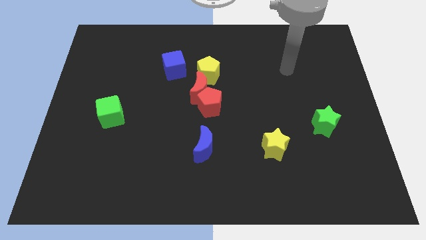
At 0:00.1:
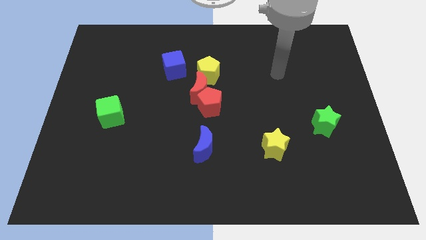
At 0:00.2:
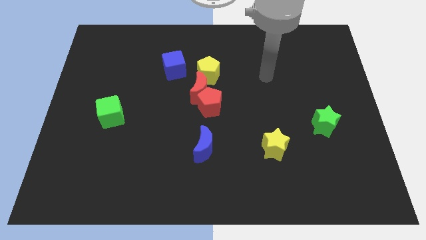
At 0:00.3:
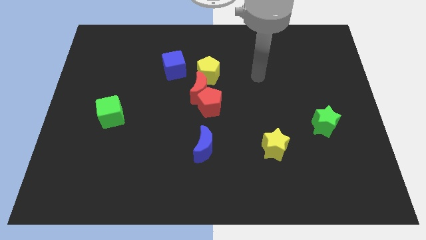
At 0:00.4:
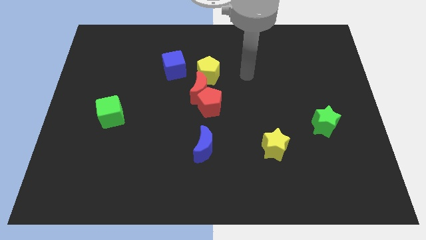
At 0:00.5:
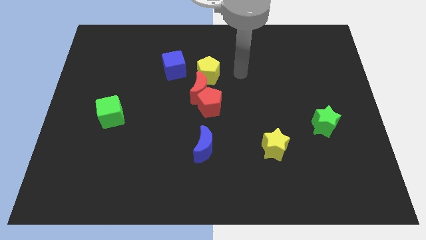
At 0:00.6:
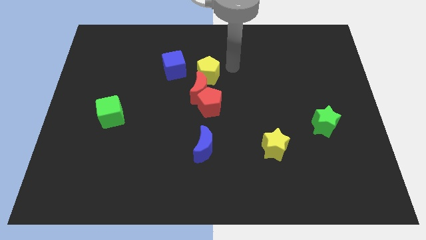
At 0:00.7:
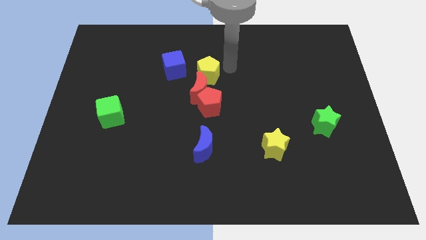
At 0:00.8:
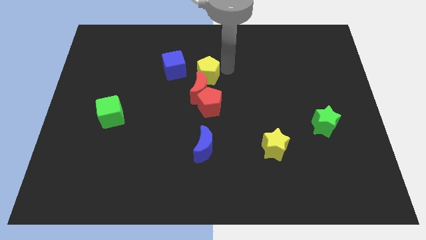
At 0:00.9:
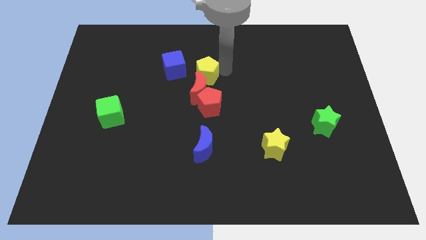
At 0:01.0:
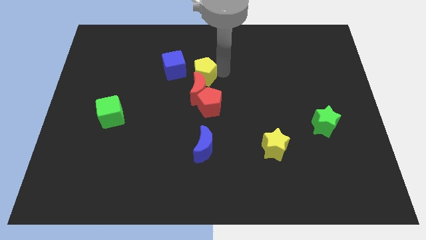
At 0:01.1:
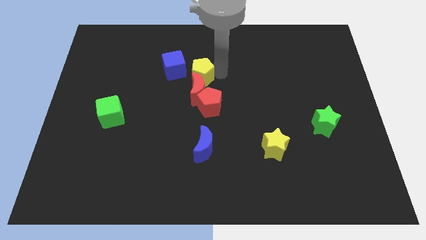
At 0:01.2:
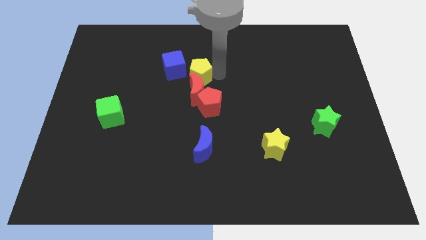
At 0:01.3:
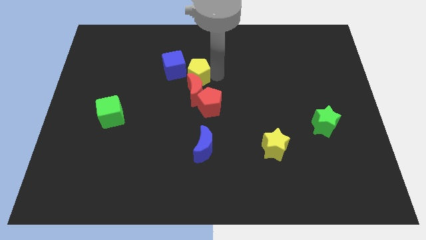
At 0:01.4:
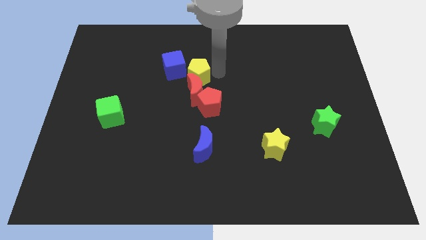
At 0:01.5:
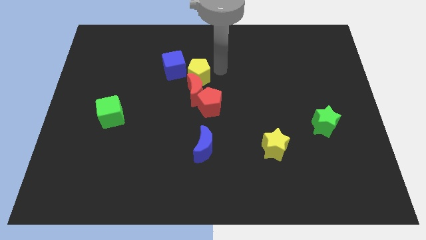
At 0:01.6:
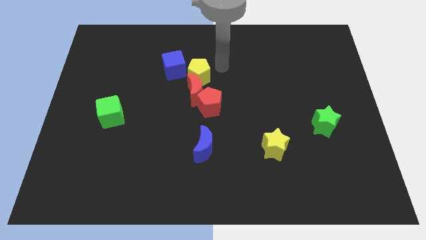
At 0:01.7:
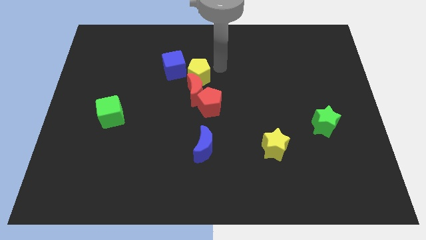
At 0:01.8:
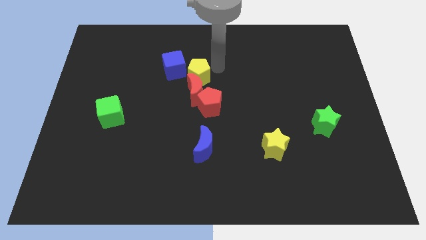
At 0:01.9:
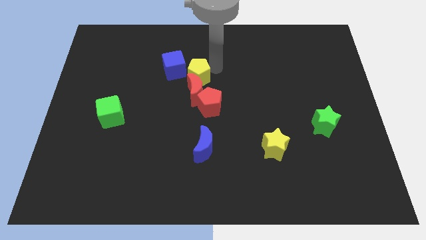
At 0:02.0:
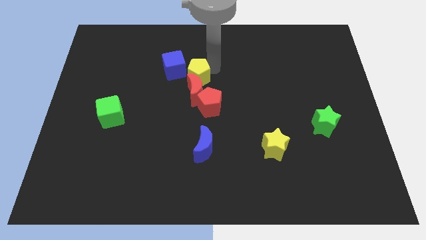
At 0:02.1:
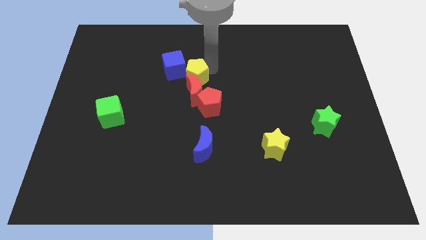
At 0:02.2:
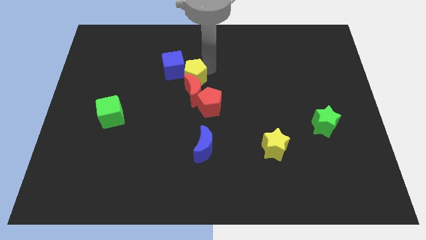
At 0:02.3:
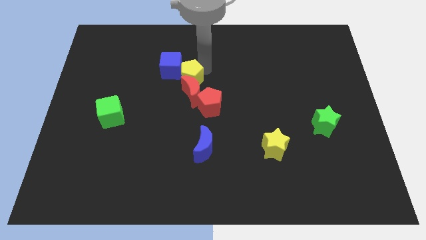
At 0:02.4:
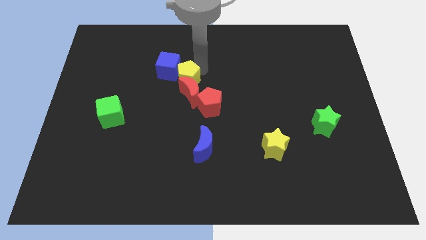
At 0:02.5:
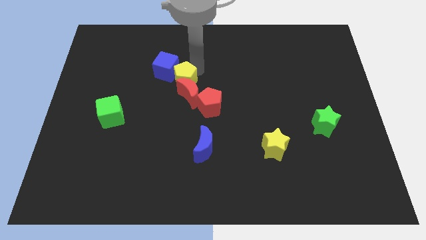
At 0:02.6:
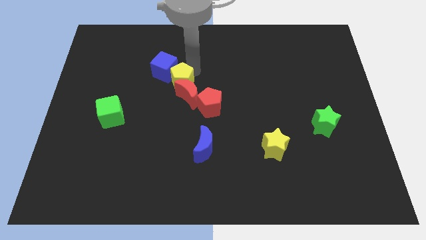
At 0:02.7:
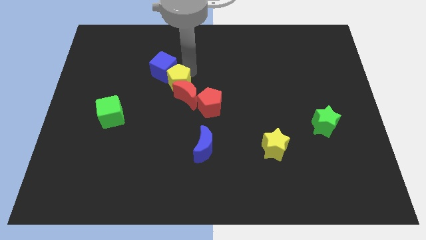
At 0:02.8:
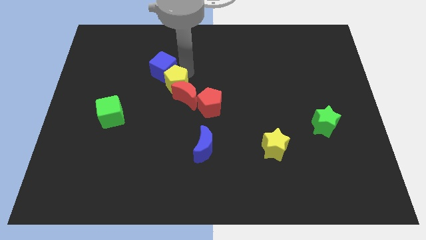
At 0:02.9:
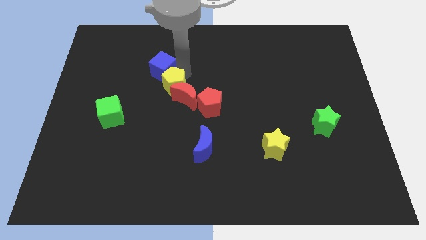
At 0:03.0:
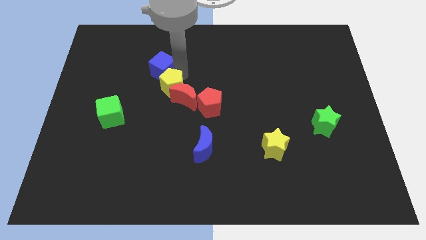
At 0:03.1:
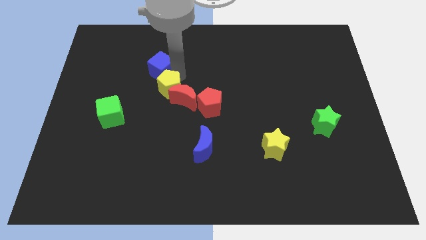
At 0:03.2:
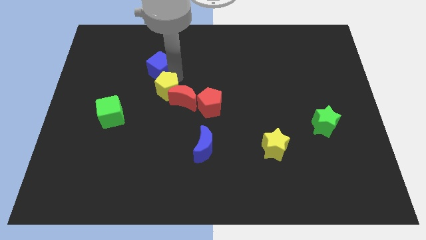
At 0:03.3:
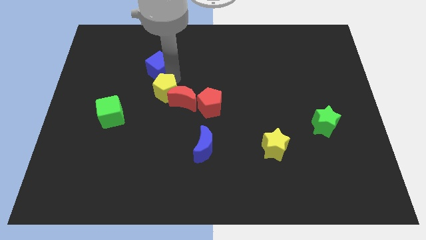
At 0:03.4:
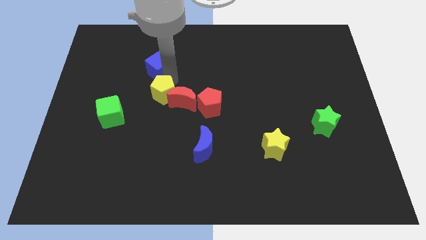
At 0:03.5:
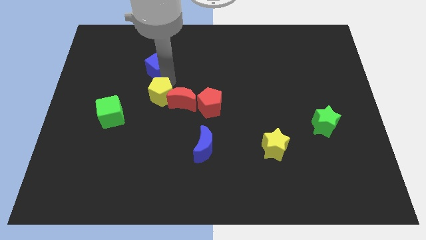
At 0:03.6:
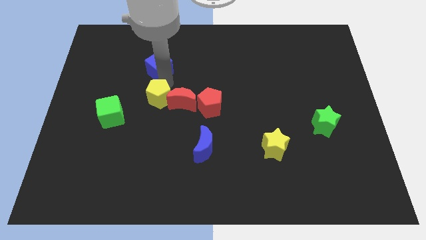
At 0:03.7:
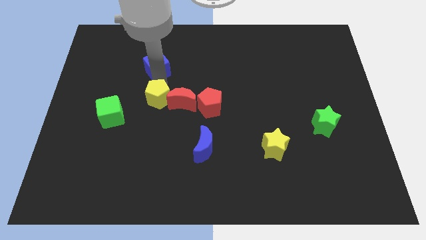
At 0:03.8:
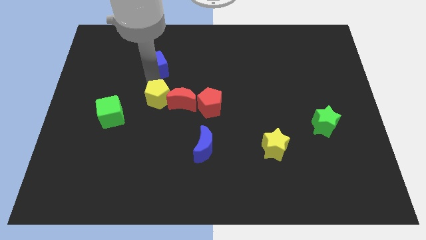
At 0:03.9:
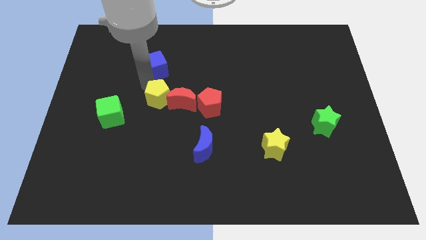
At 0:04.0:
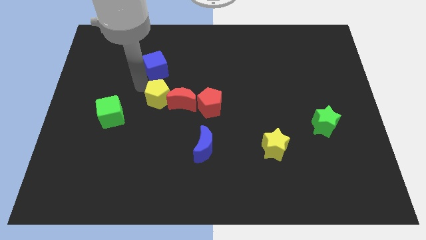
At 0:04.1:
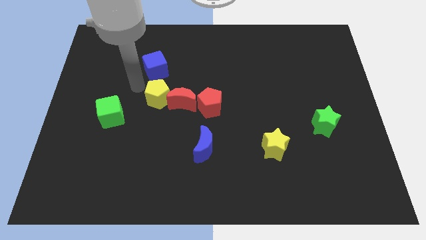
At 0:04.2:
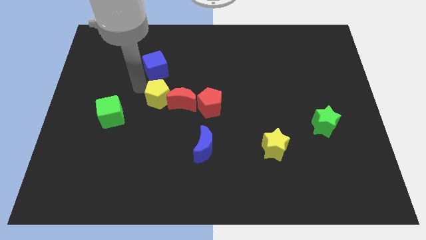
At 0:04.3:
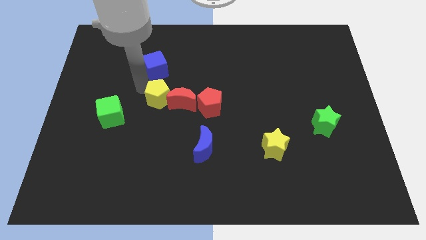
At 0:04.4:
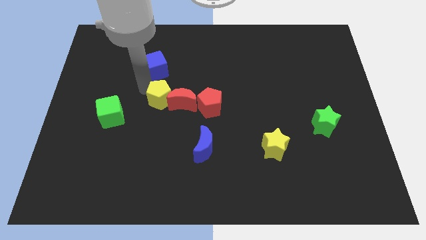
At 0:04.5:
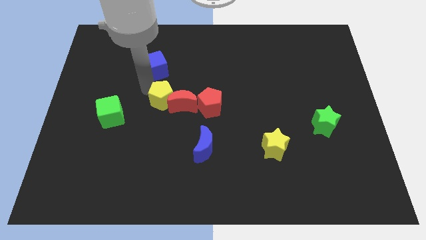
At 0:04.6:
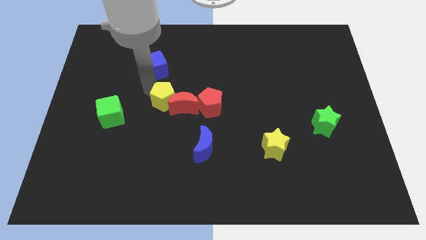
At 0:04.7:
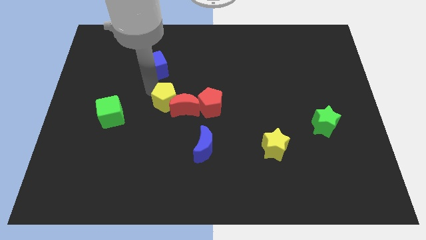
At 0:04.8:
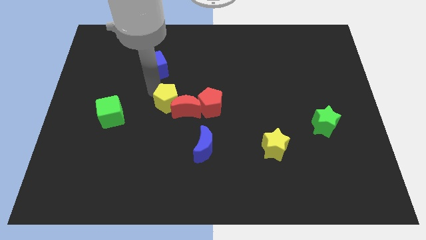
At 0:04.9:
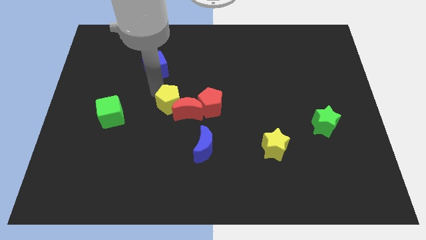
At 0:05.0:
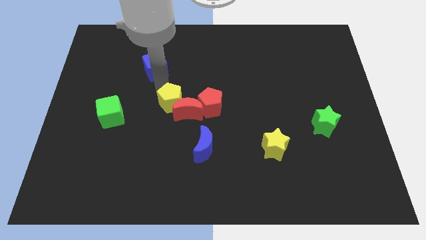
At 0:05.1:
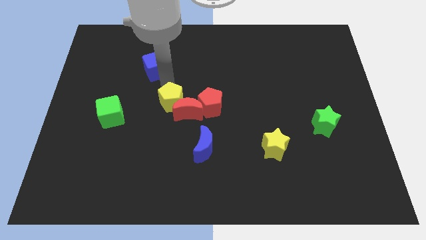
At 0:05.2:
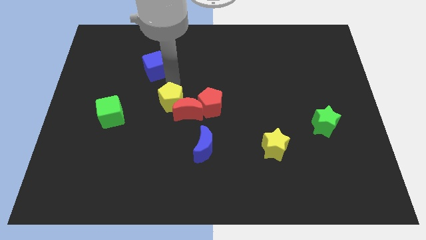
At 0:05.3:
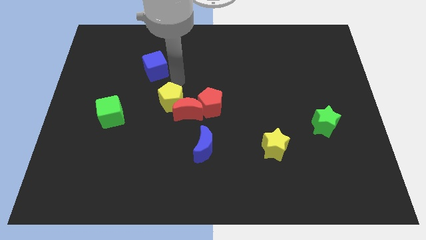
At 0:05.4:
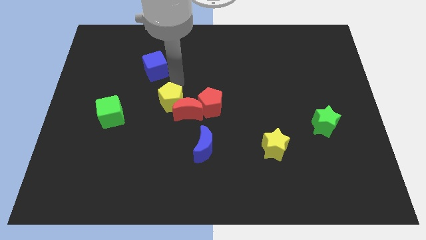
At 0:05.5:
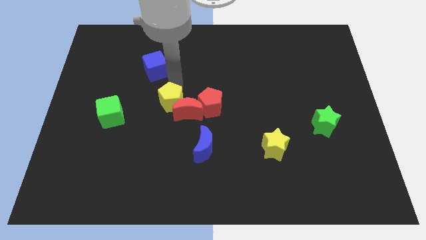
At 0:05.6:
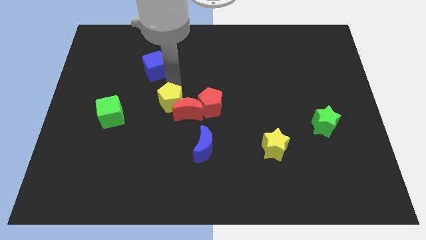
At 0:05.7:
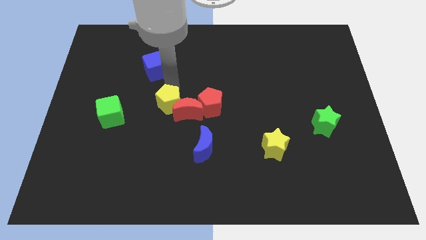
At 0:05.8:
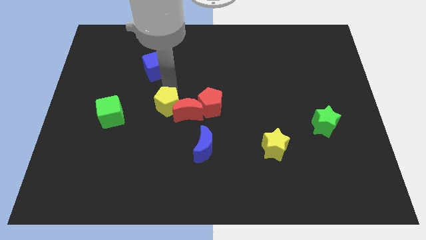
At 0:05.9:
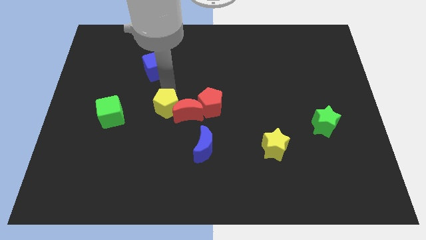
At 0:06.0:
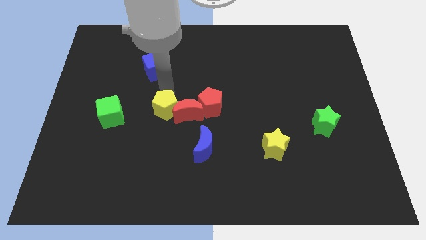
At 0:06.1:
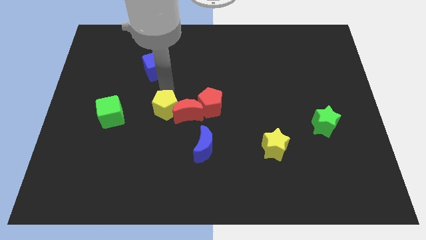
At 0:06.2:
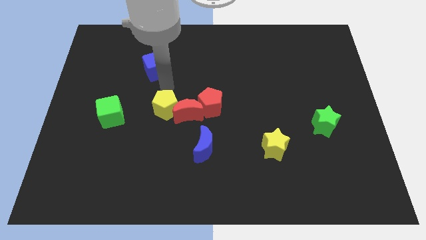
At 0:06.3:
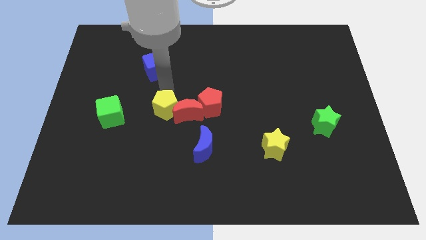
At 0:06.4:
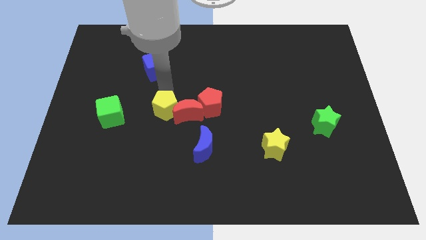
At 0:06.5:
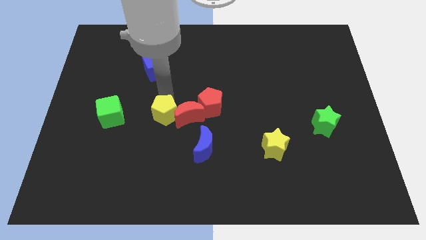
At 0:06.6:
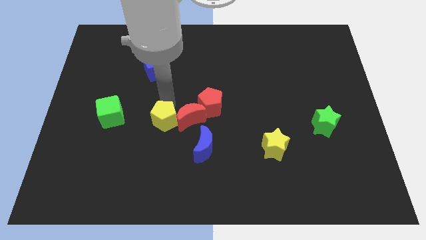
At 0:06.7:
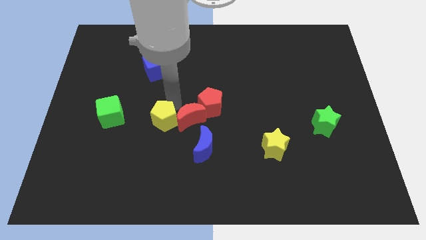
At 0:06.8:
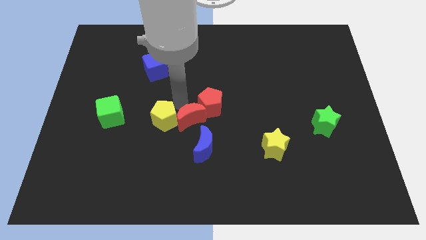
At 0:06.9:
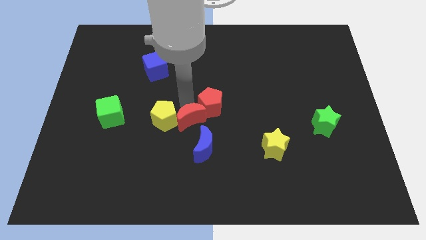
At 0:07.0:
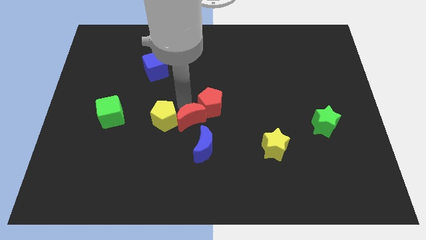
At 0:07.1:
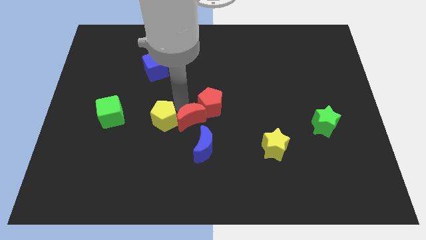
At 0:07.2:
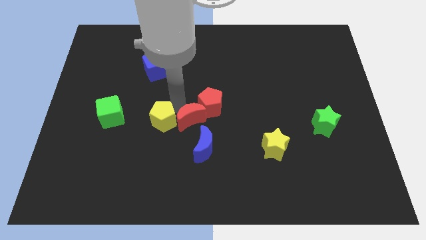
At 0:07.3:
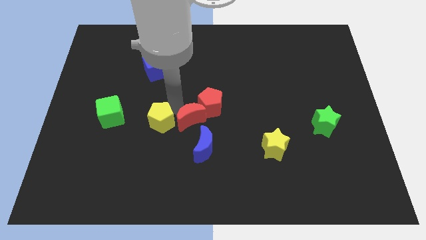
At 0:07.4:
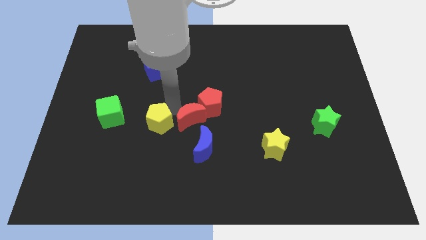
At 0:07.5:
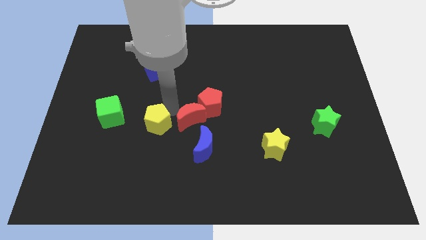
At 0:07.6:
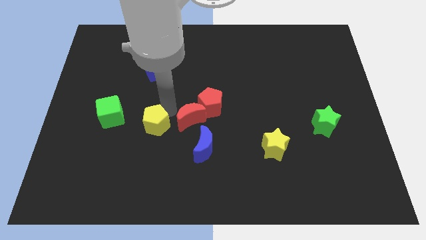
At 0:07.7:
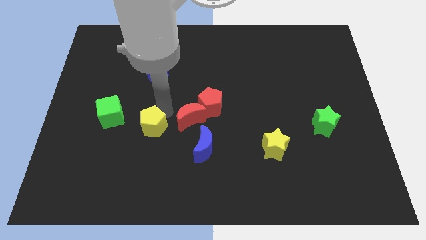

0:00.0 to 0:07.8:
push the yellow pentagon downwards and then left

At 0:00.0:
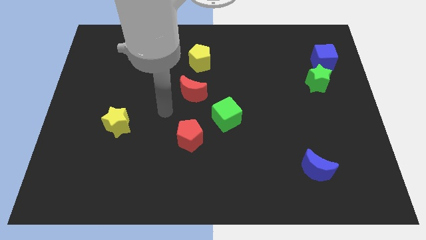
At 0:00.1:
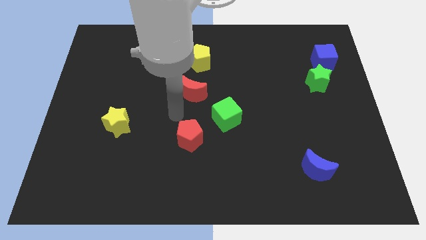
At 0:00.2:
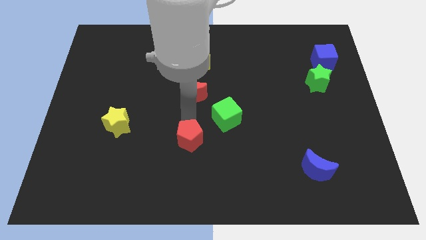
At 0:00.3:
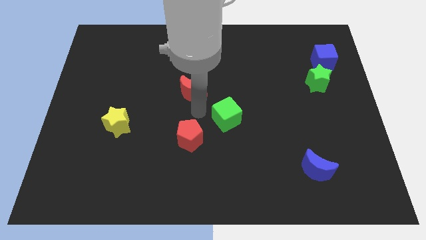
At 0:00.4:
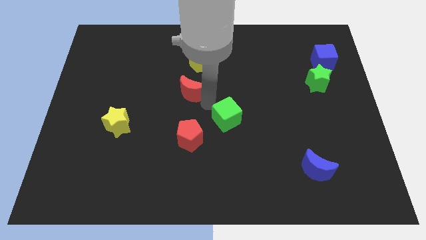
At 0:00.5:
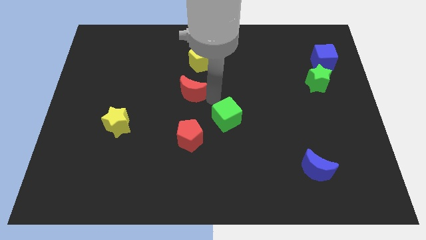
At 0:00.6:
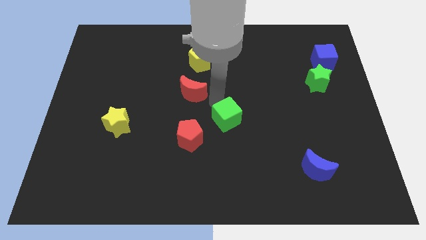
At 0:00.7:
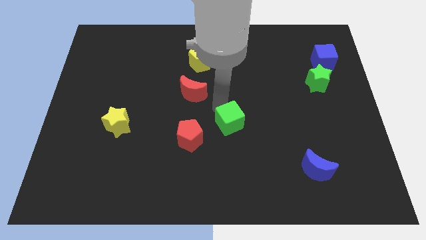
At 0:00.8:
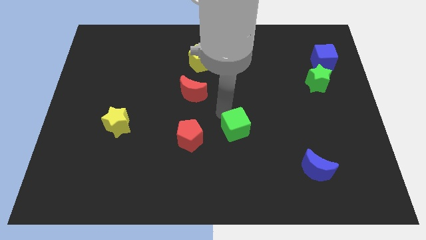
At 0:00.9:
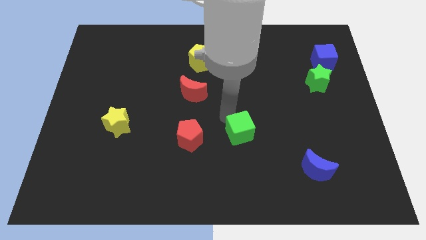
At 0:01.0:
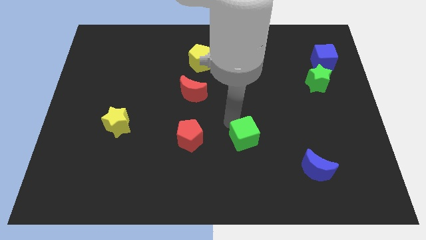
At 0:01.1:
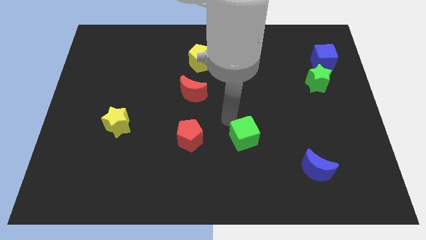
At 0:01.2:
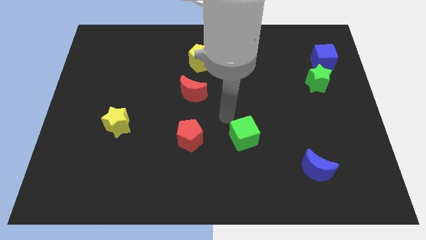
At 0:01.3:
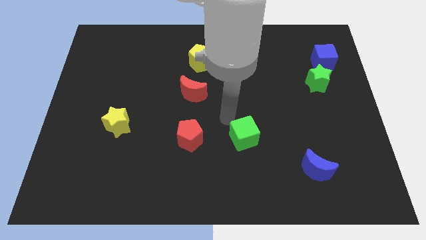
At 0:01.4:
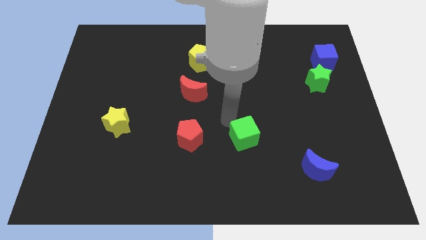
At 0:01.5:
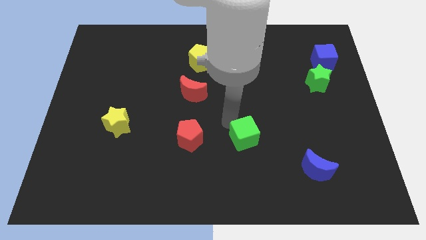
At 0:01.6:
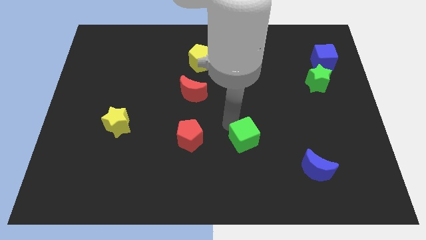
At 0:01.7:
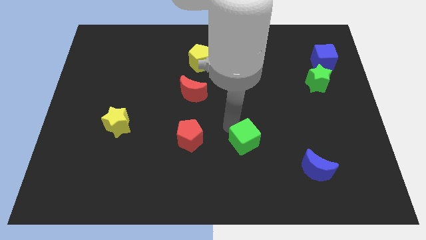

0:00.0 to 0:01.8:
slide the green cube a little down and right diagonally
